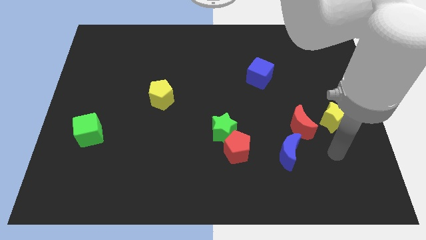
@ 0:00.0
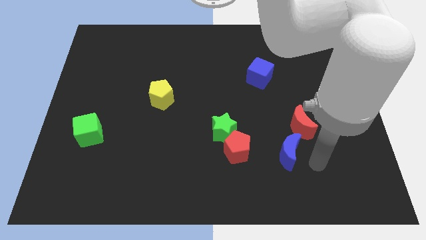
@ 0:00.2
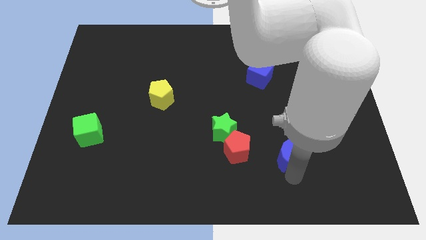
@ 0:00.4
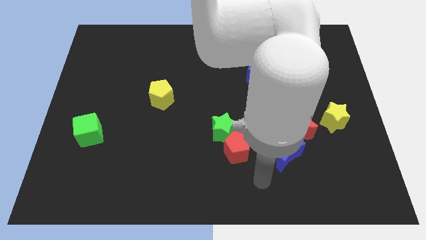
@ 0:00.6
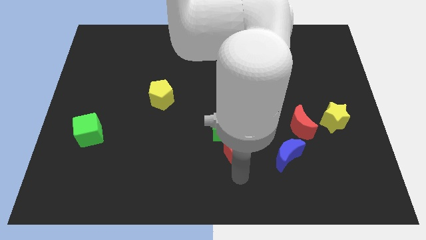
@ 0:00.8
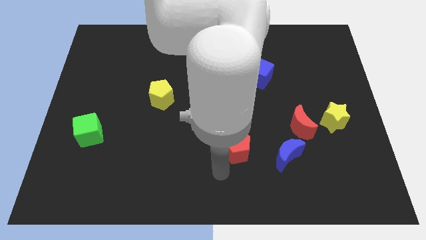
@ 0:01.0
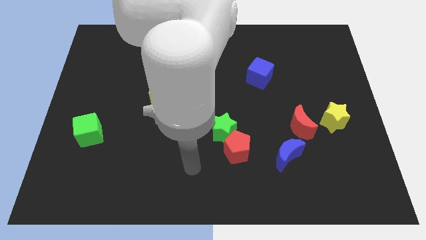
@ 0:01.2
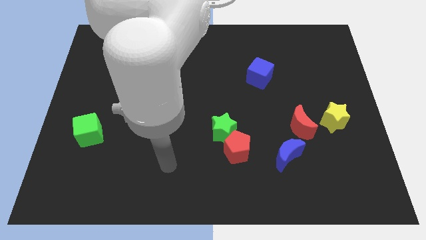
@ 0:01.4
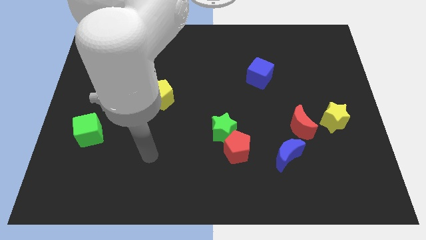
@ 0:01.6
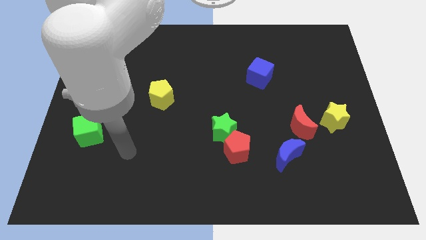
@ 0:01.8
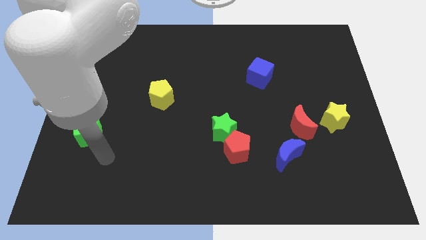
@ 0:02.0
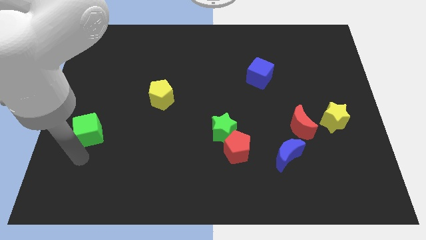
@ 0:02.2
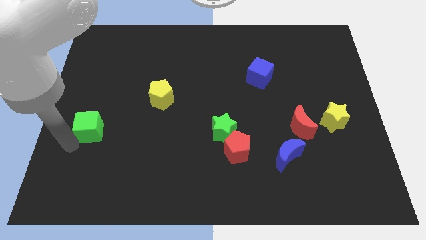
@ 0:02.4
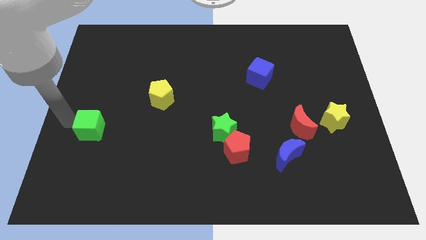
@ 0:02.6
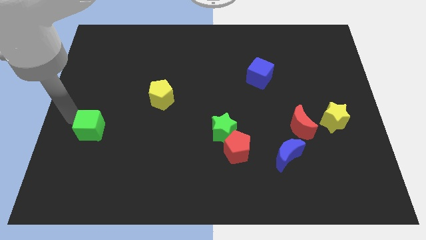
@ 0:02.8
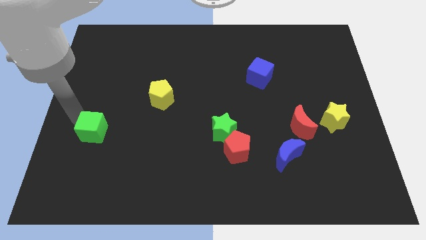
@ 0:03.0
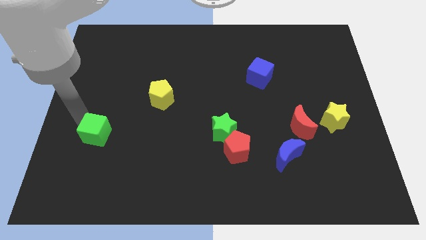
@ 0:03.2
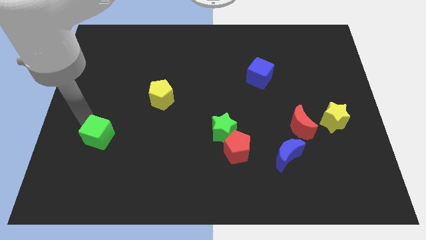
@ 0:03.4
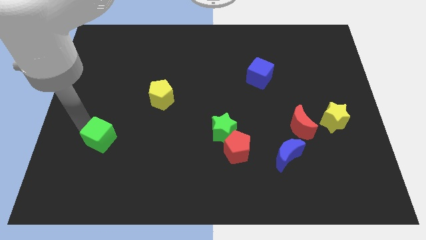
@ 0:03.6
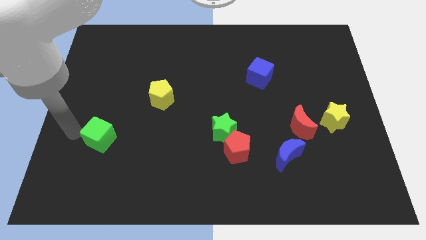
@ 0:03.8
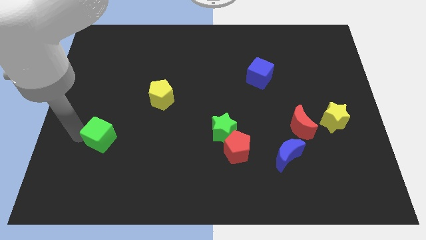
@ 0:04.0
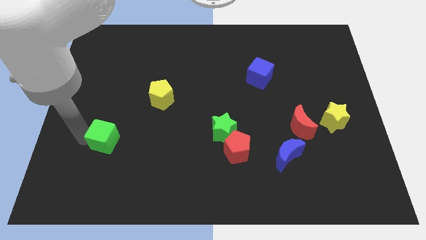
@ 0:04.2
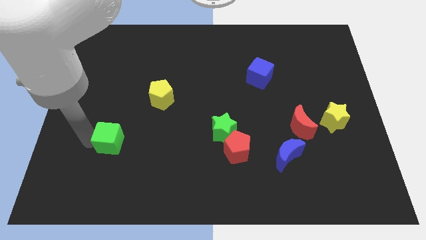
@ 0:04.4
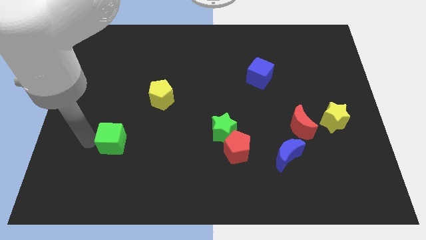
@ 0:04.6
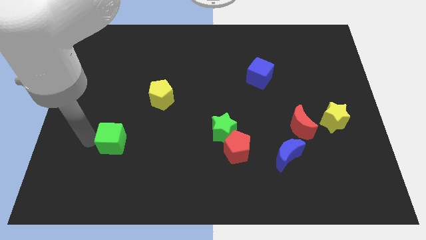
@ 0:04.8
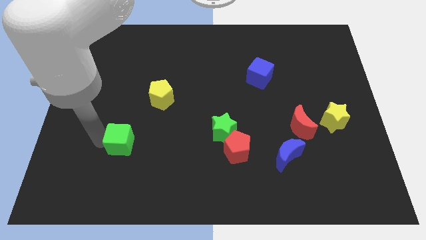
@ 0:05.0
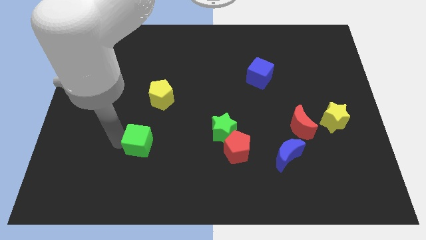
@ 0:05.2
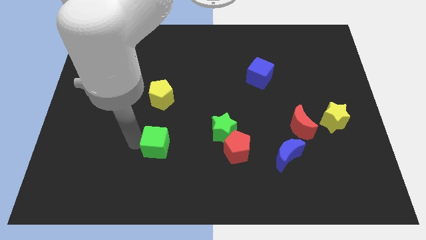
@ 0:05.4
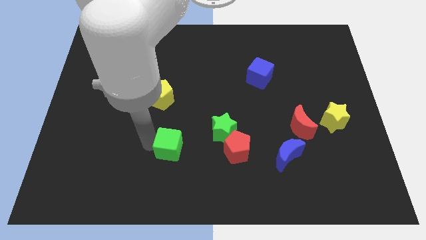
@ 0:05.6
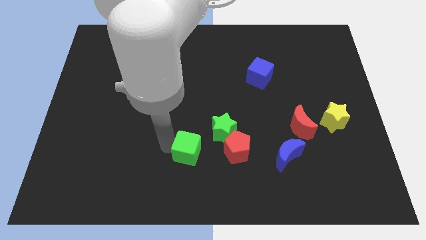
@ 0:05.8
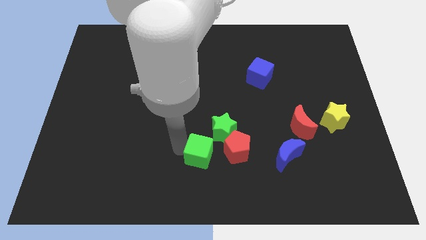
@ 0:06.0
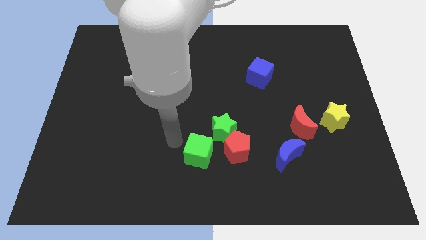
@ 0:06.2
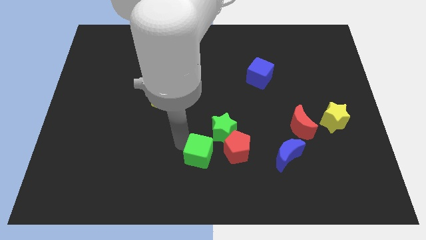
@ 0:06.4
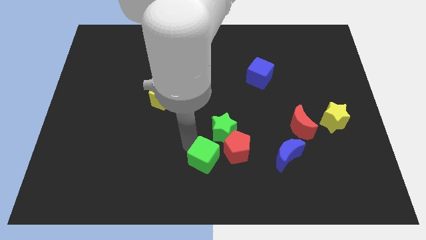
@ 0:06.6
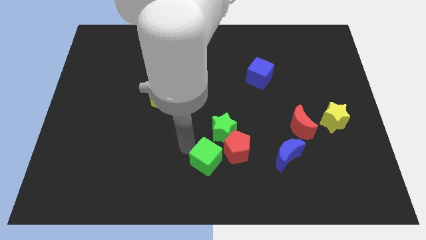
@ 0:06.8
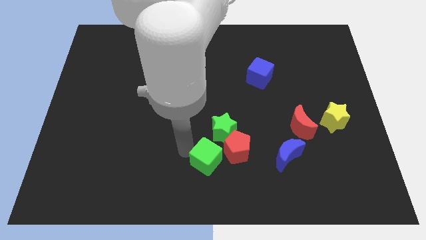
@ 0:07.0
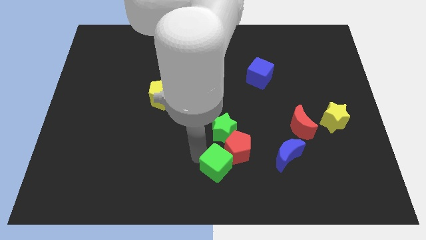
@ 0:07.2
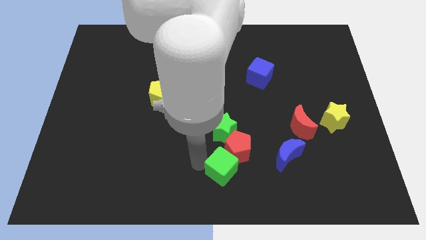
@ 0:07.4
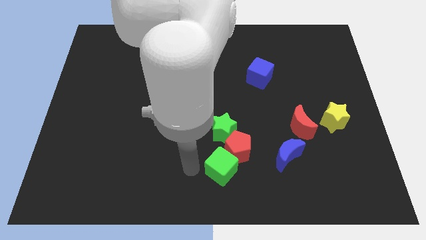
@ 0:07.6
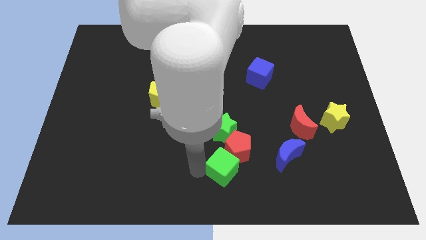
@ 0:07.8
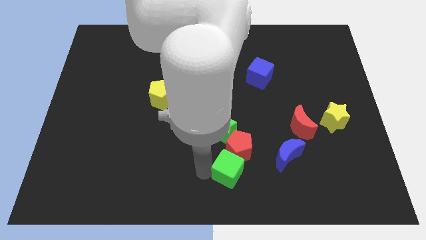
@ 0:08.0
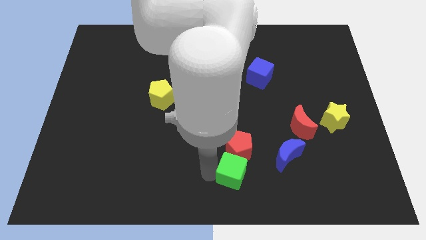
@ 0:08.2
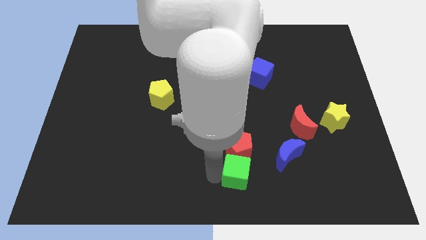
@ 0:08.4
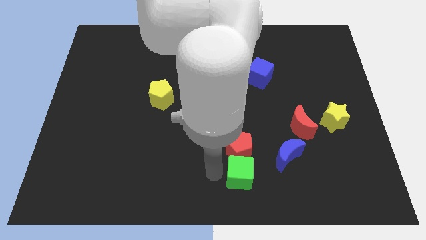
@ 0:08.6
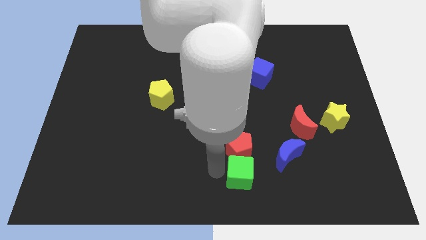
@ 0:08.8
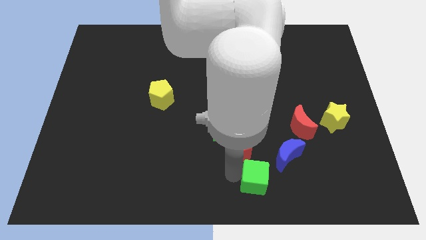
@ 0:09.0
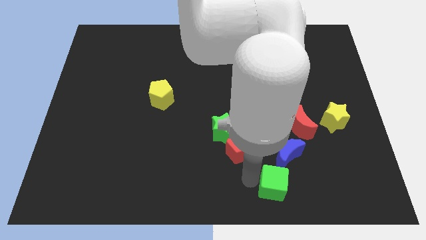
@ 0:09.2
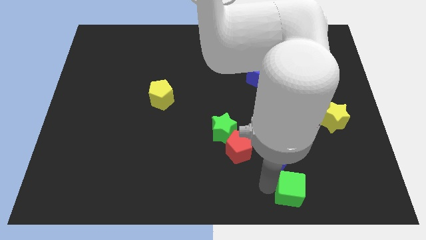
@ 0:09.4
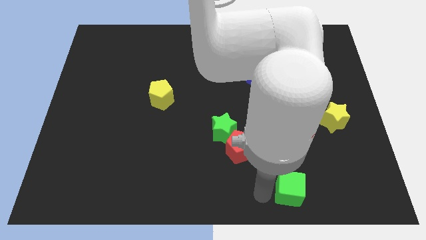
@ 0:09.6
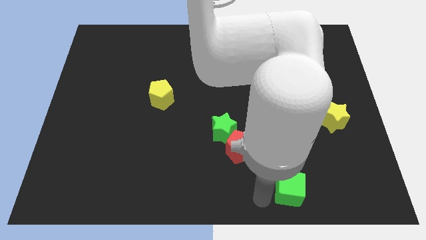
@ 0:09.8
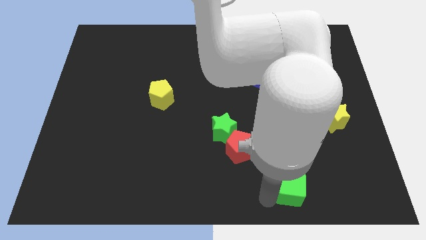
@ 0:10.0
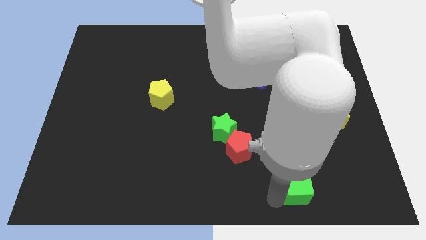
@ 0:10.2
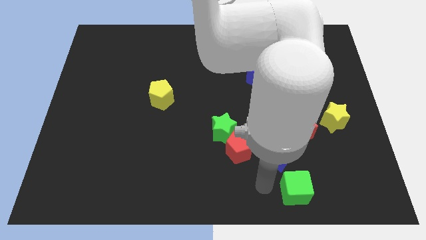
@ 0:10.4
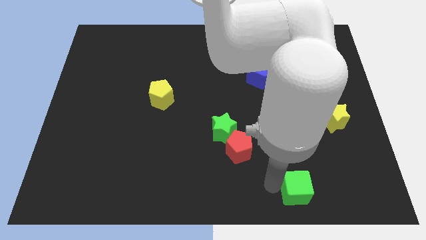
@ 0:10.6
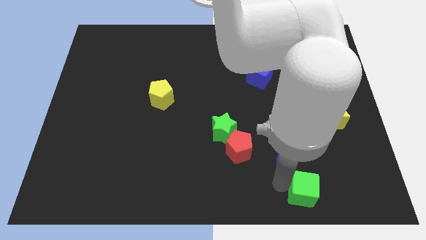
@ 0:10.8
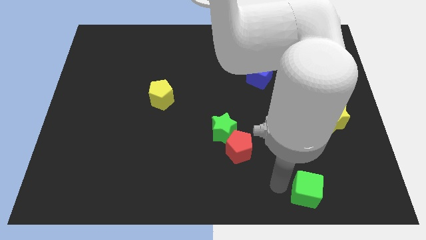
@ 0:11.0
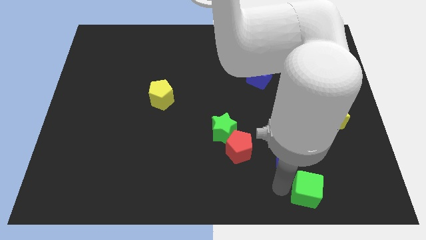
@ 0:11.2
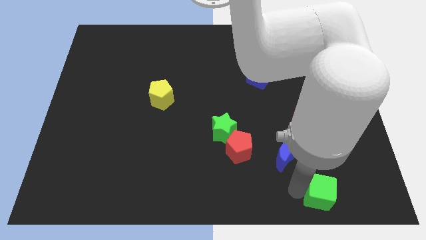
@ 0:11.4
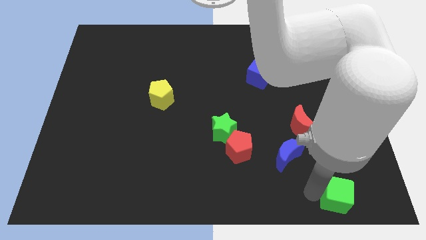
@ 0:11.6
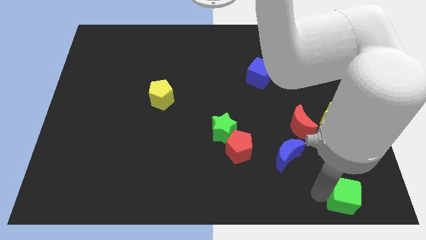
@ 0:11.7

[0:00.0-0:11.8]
slide the green cube to the lower right corner
